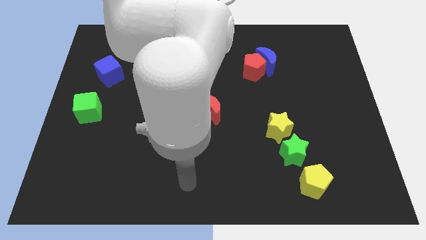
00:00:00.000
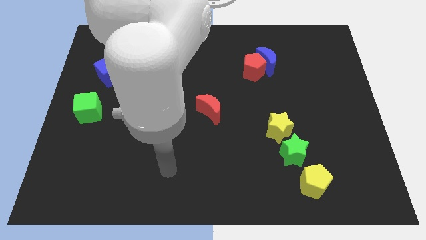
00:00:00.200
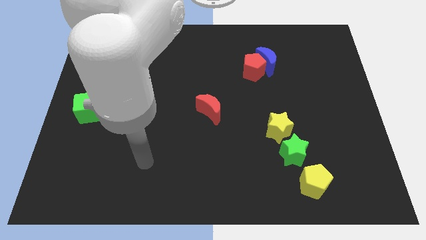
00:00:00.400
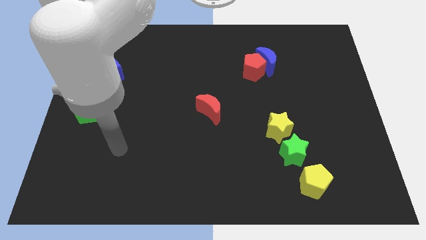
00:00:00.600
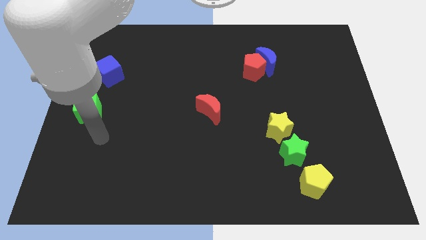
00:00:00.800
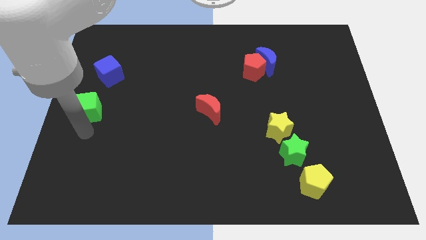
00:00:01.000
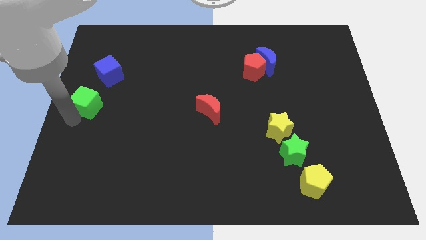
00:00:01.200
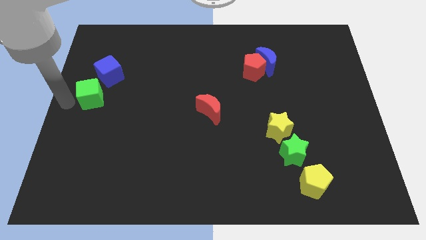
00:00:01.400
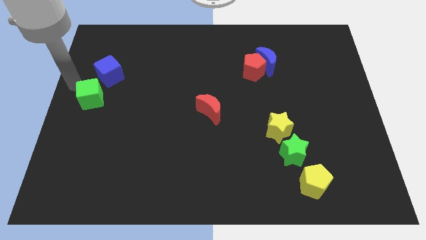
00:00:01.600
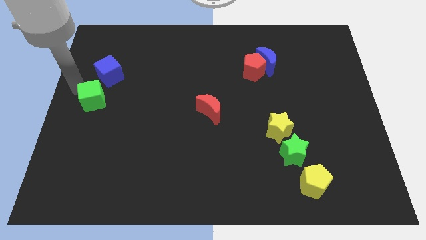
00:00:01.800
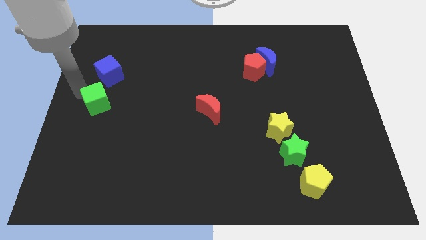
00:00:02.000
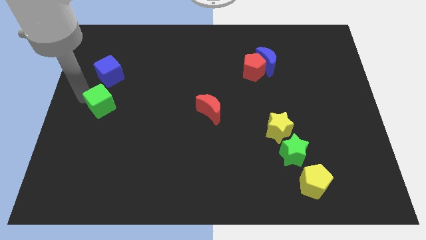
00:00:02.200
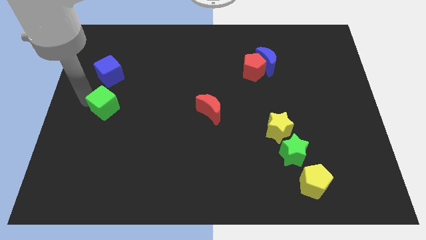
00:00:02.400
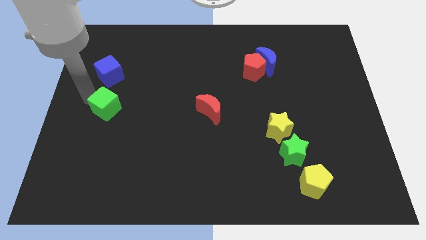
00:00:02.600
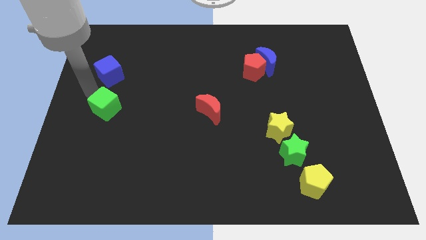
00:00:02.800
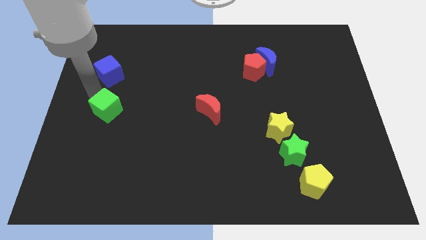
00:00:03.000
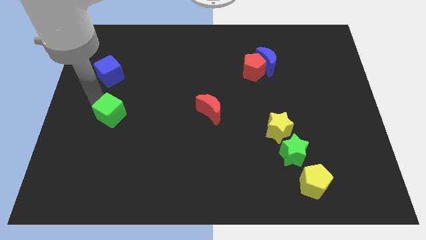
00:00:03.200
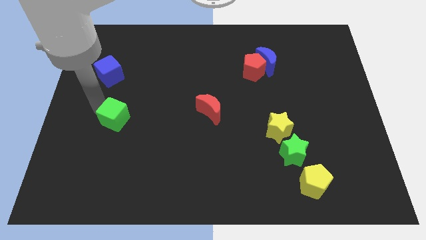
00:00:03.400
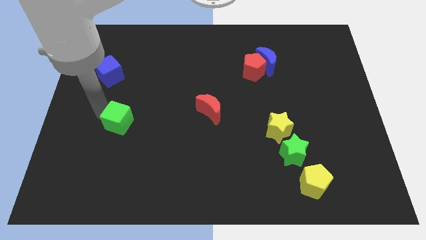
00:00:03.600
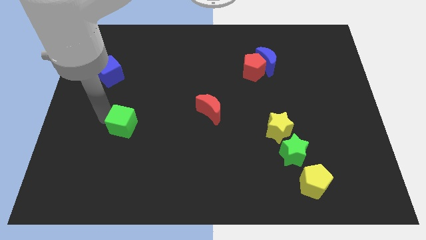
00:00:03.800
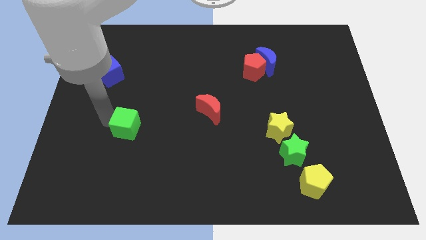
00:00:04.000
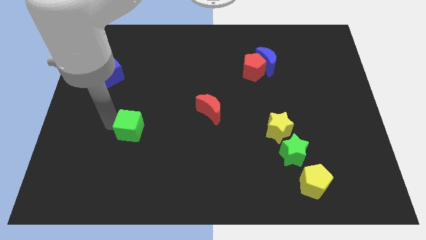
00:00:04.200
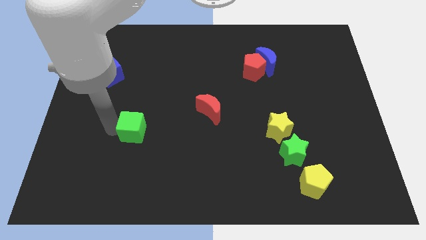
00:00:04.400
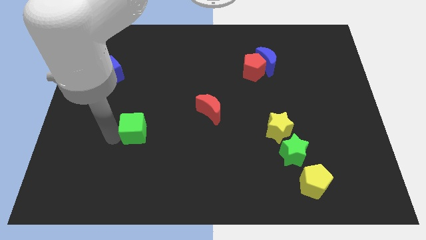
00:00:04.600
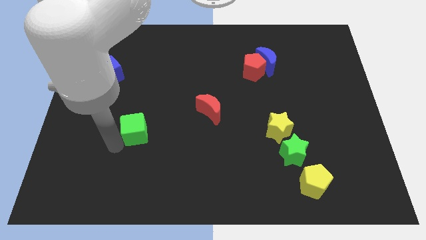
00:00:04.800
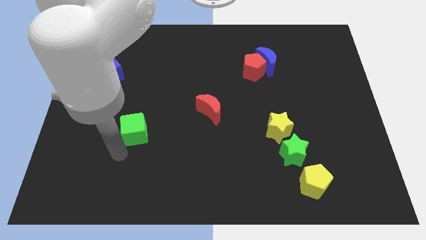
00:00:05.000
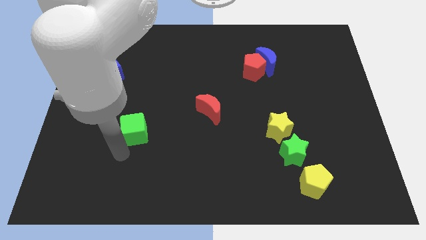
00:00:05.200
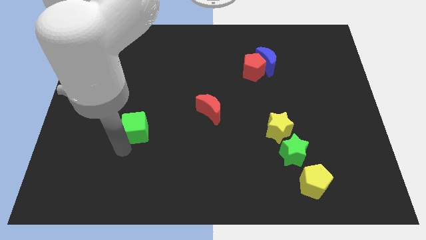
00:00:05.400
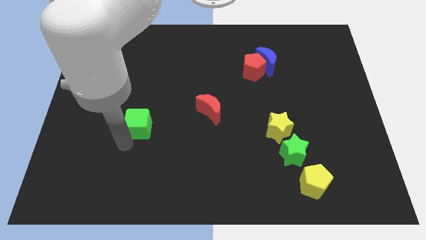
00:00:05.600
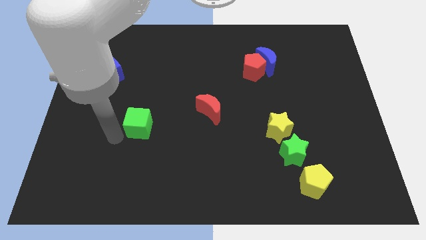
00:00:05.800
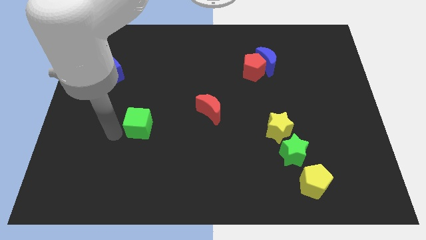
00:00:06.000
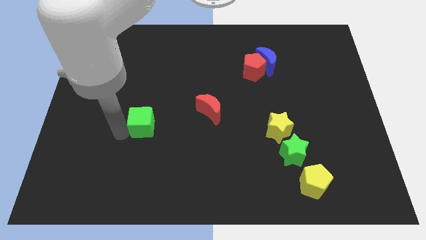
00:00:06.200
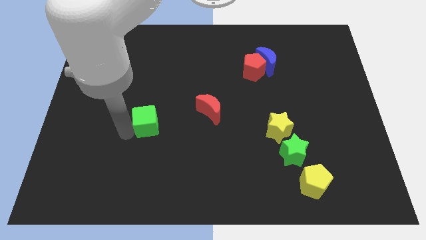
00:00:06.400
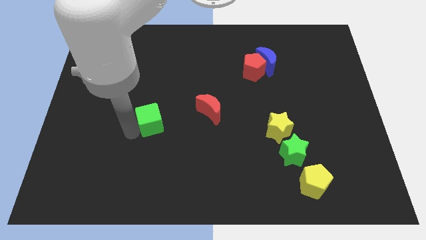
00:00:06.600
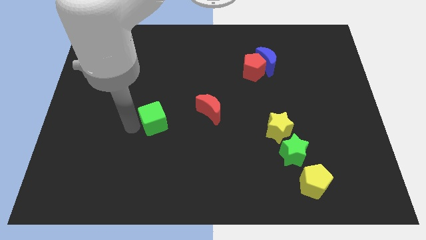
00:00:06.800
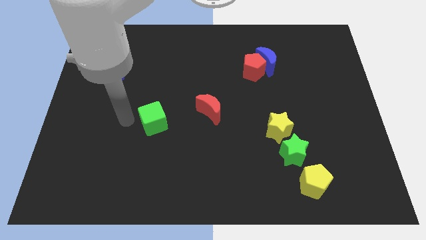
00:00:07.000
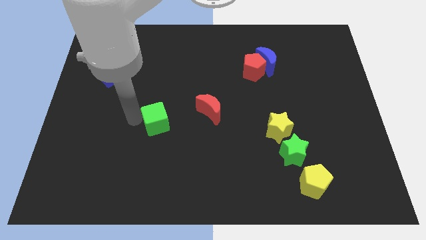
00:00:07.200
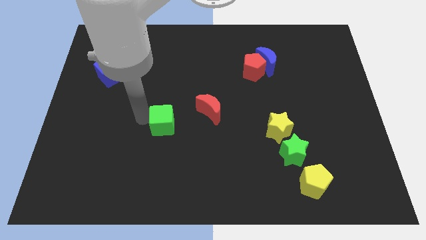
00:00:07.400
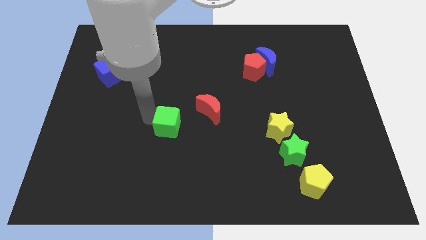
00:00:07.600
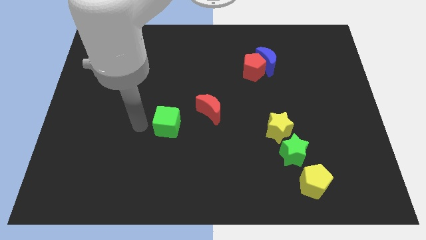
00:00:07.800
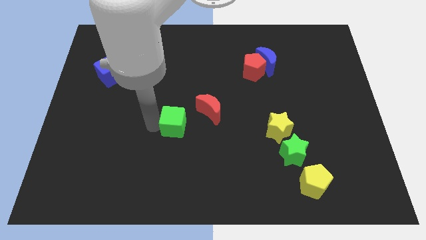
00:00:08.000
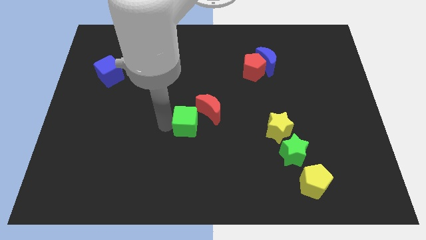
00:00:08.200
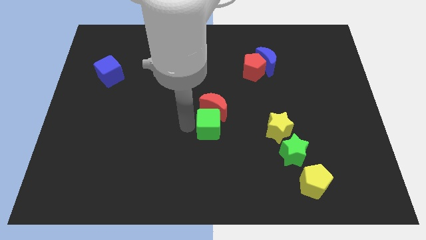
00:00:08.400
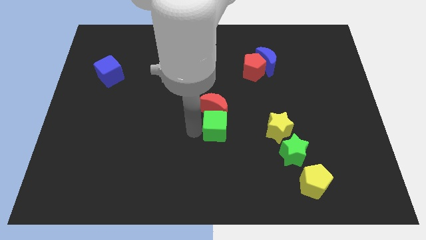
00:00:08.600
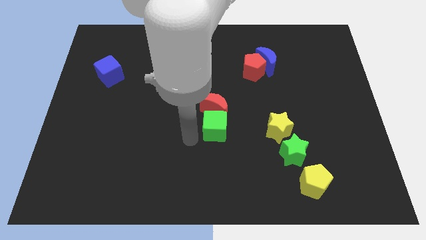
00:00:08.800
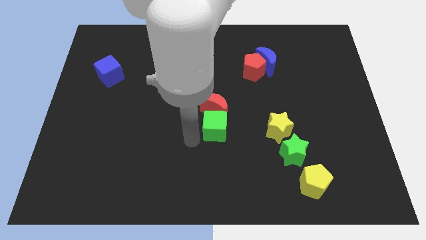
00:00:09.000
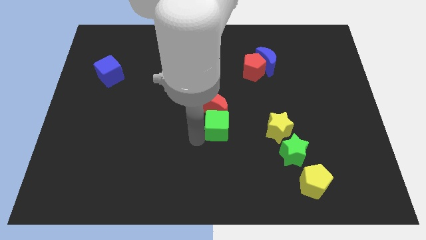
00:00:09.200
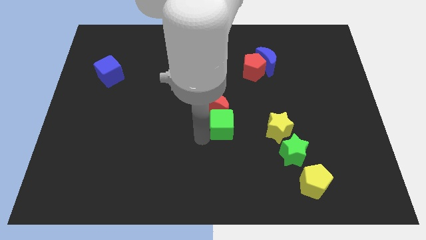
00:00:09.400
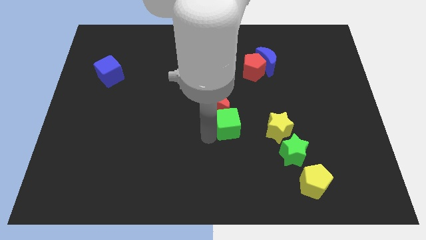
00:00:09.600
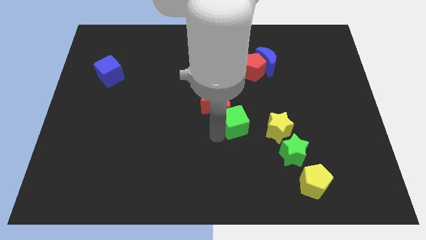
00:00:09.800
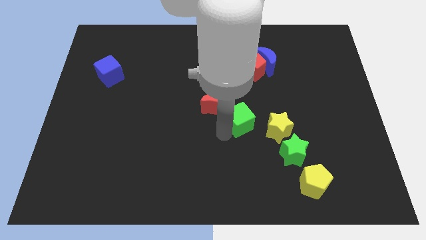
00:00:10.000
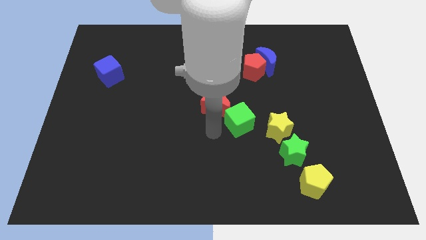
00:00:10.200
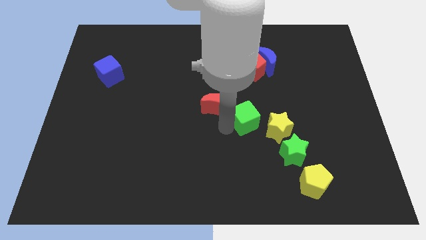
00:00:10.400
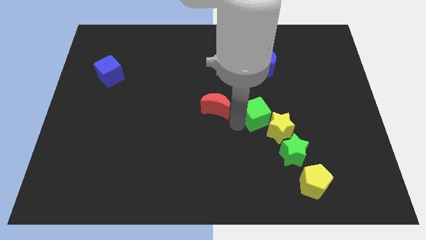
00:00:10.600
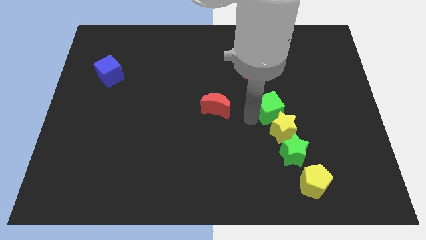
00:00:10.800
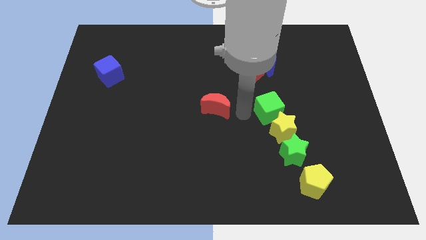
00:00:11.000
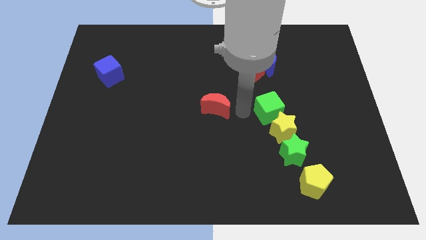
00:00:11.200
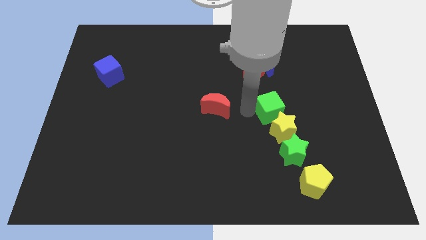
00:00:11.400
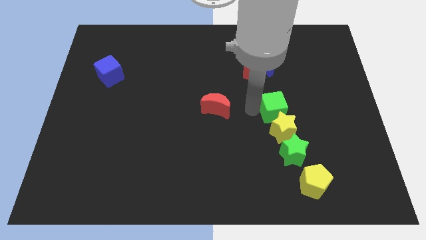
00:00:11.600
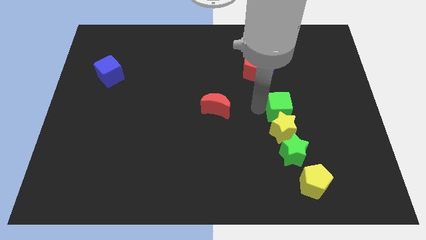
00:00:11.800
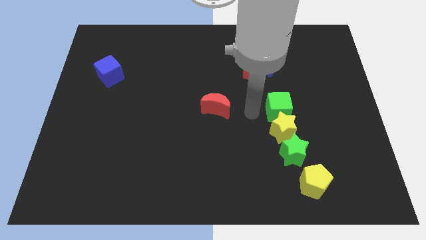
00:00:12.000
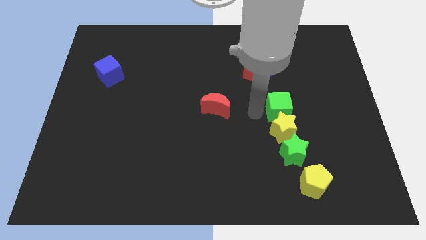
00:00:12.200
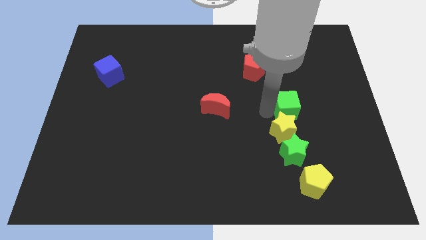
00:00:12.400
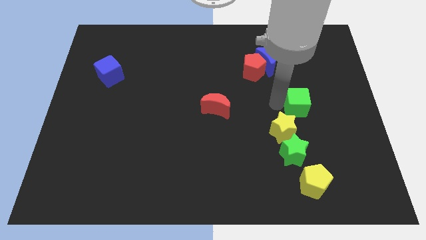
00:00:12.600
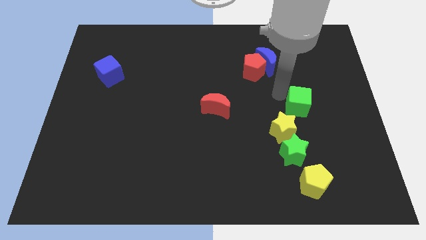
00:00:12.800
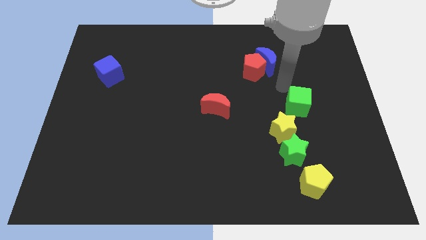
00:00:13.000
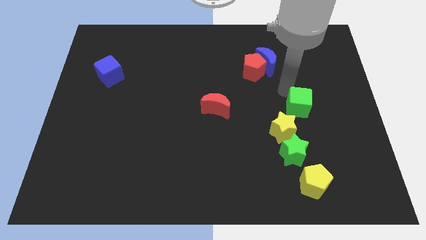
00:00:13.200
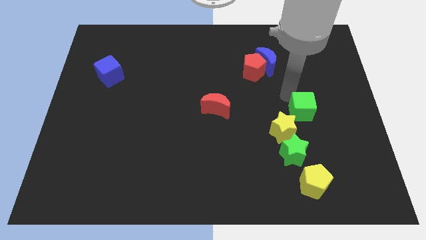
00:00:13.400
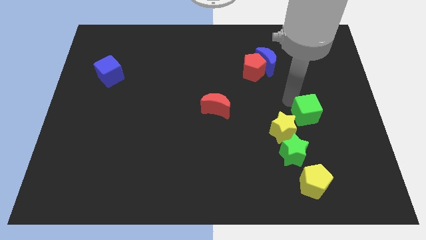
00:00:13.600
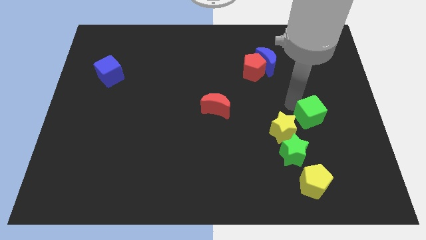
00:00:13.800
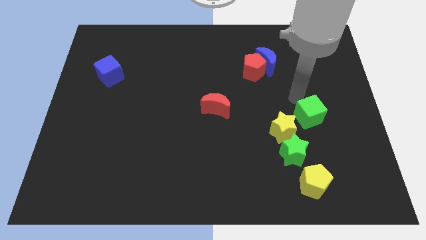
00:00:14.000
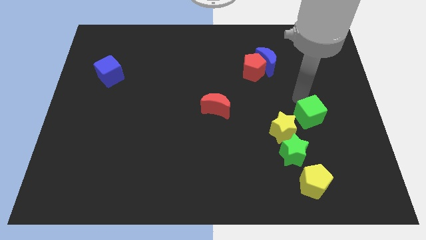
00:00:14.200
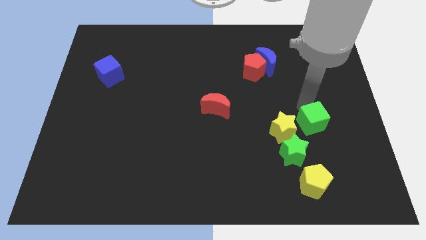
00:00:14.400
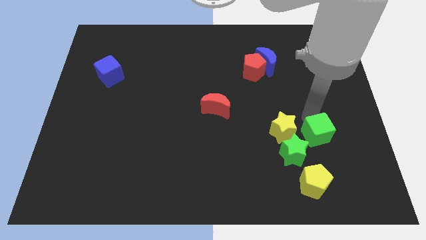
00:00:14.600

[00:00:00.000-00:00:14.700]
put the green cube to the bottom right of the yellow star
